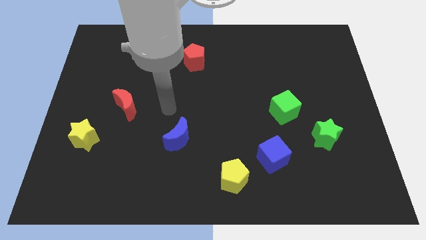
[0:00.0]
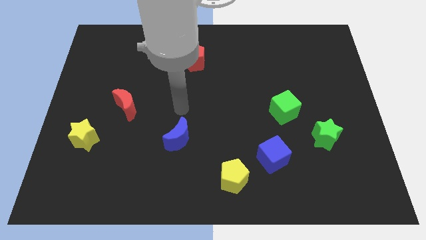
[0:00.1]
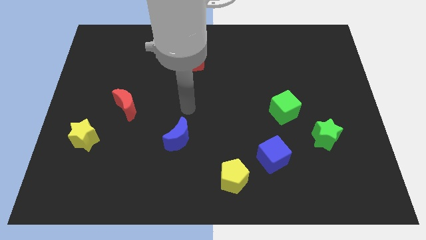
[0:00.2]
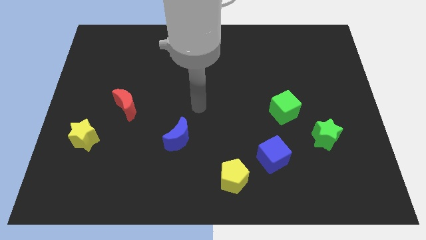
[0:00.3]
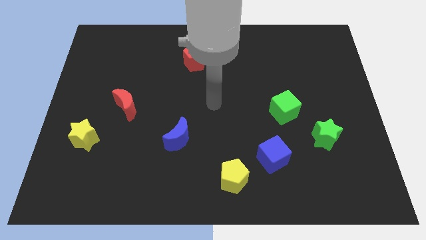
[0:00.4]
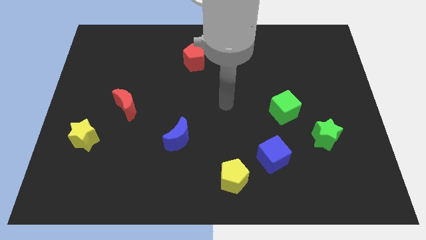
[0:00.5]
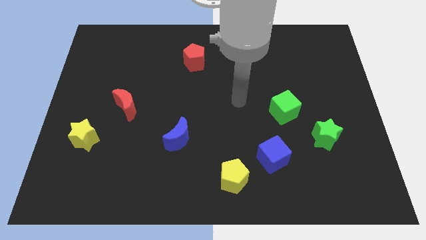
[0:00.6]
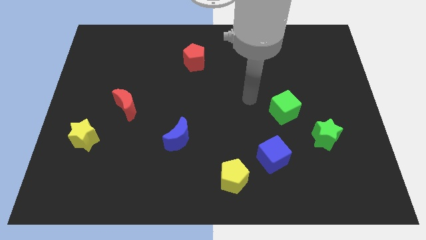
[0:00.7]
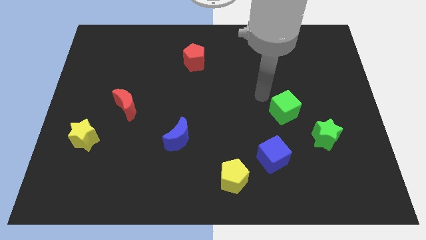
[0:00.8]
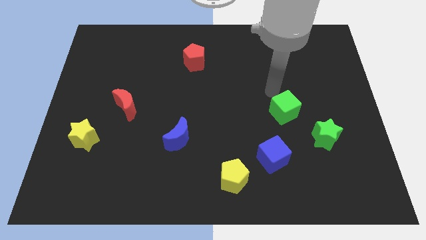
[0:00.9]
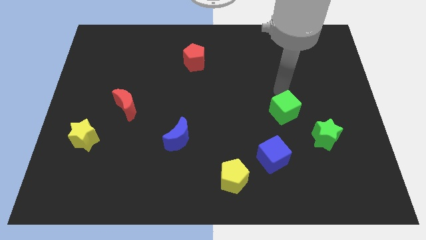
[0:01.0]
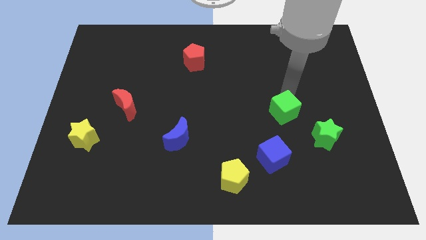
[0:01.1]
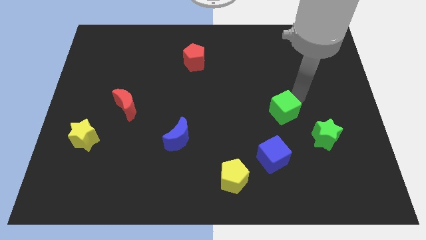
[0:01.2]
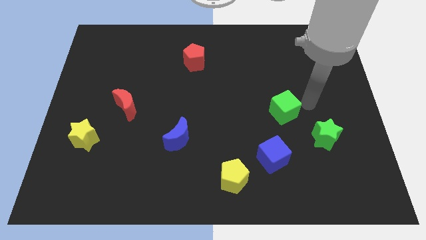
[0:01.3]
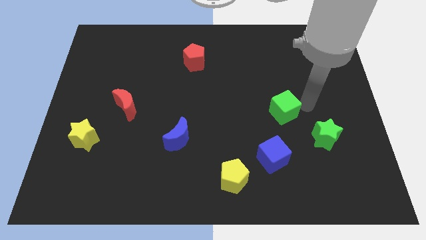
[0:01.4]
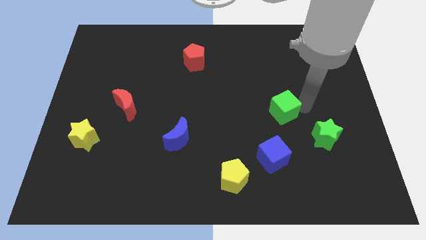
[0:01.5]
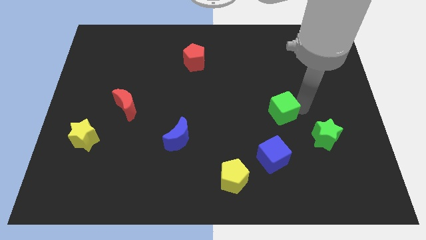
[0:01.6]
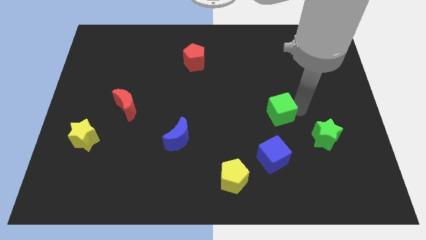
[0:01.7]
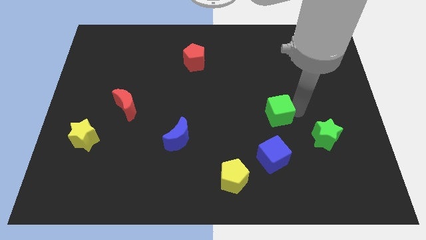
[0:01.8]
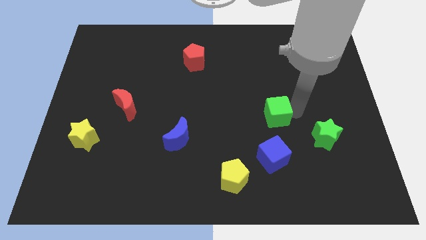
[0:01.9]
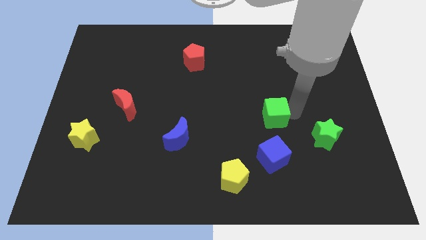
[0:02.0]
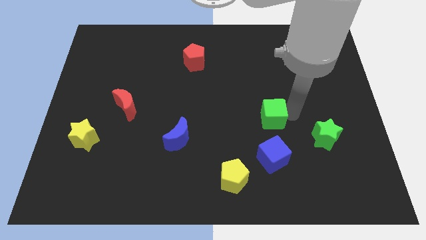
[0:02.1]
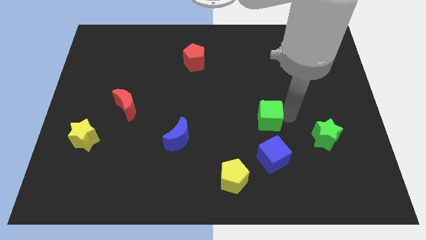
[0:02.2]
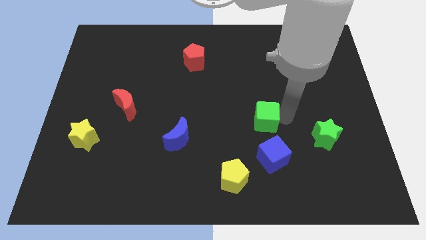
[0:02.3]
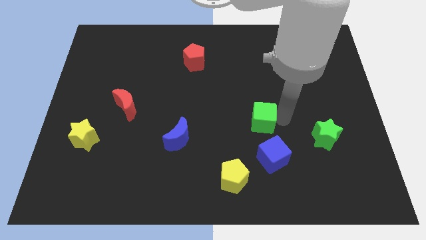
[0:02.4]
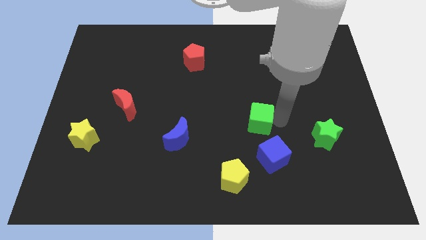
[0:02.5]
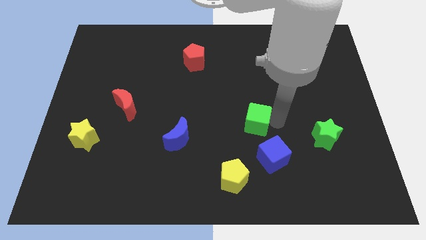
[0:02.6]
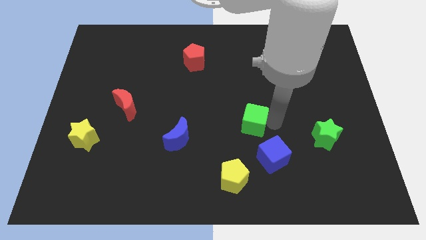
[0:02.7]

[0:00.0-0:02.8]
slightly move the green cube to the left

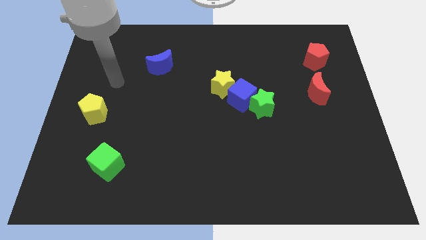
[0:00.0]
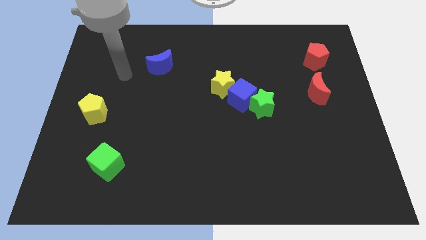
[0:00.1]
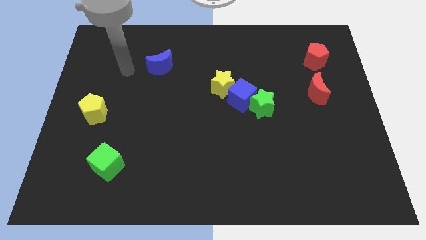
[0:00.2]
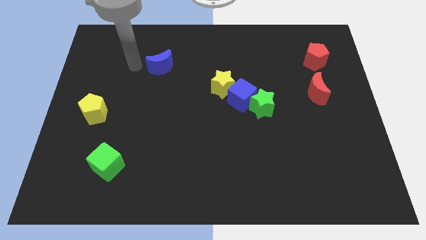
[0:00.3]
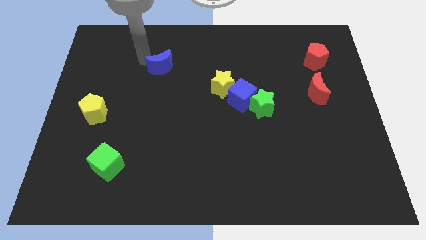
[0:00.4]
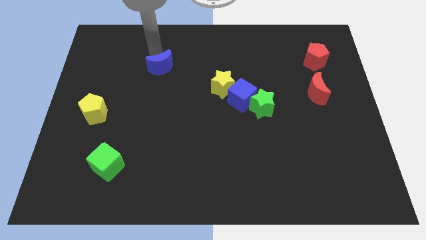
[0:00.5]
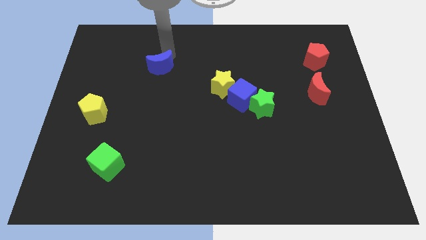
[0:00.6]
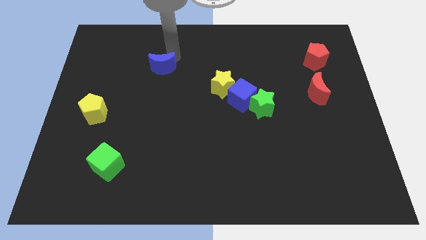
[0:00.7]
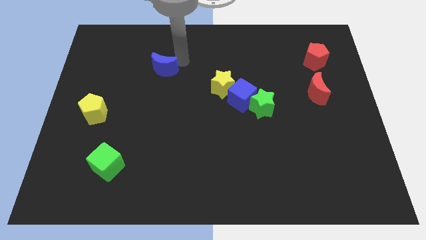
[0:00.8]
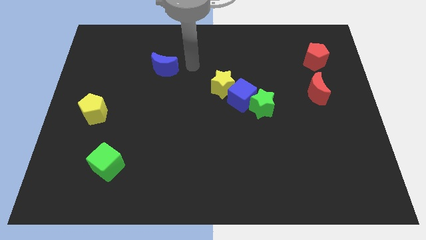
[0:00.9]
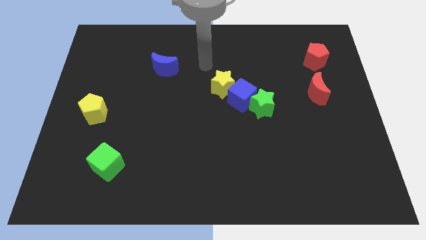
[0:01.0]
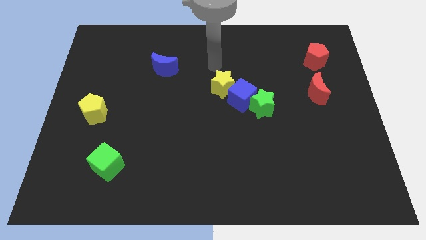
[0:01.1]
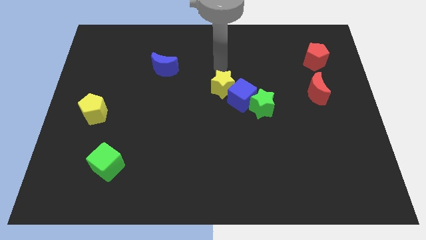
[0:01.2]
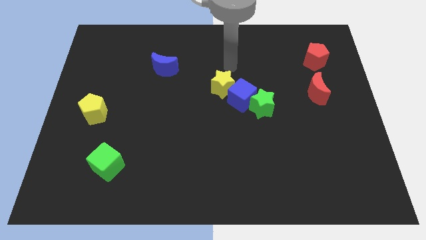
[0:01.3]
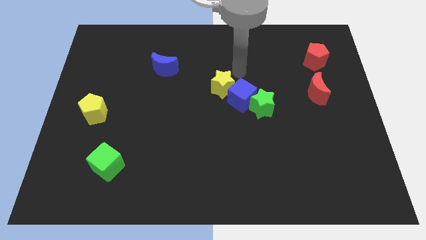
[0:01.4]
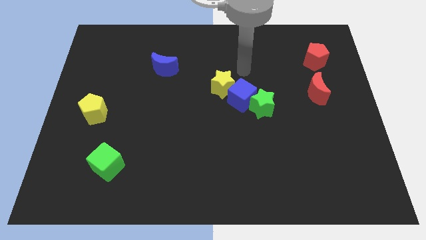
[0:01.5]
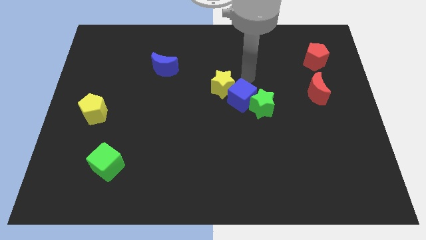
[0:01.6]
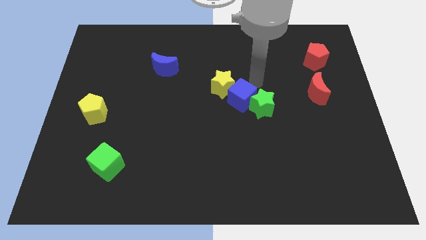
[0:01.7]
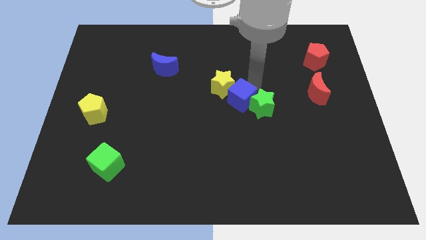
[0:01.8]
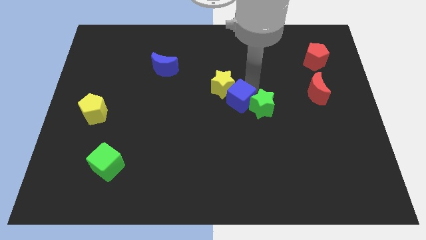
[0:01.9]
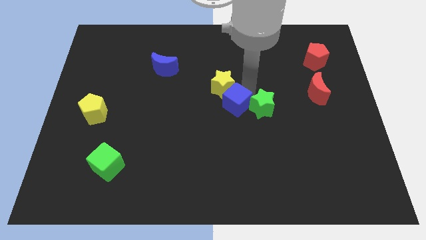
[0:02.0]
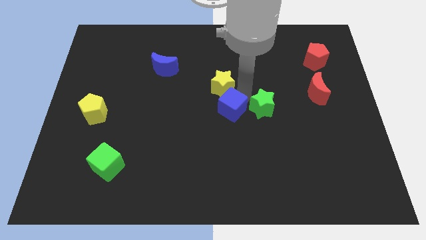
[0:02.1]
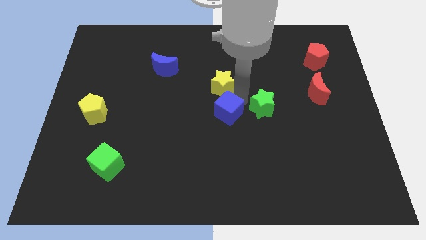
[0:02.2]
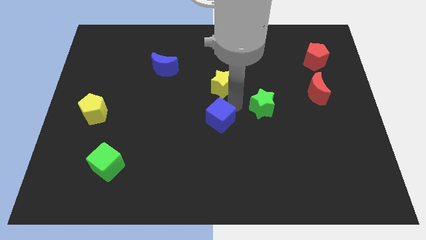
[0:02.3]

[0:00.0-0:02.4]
push the blue cube downwards and then left somewhat

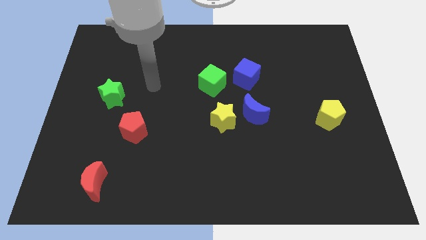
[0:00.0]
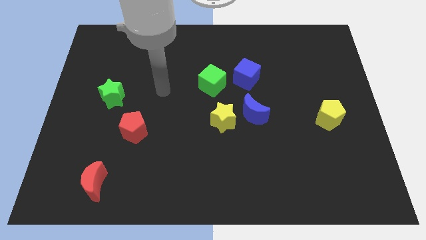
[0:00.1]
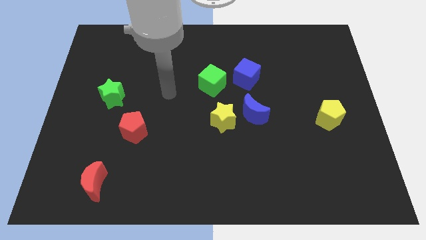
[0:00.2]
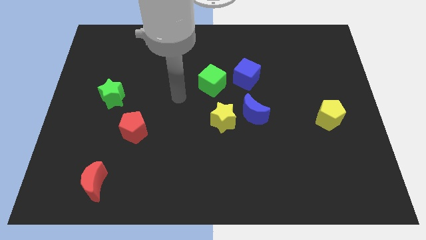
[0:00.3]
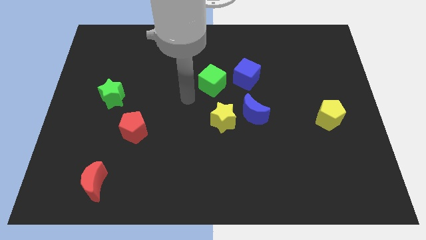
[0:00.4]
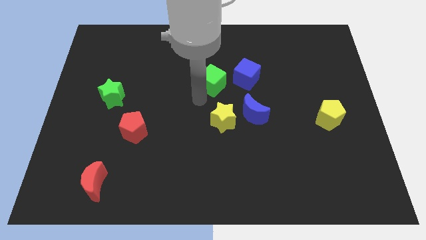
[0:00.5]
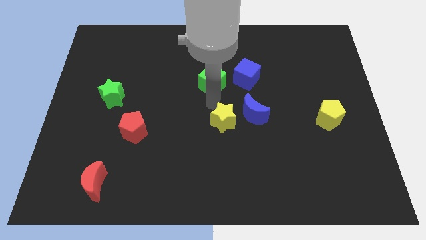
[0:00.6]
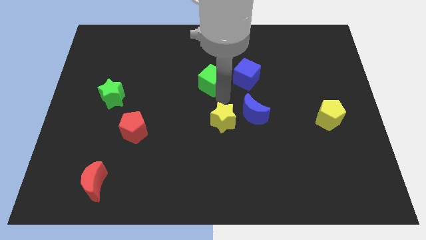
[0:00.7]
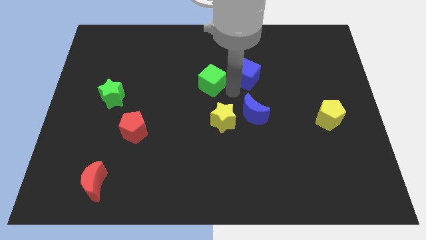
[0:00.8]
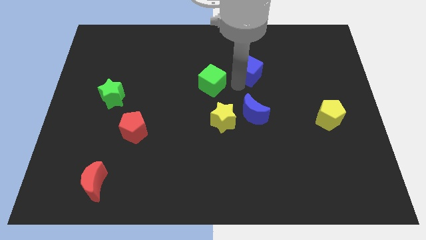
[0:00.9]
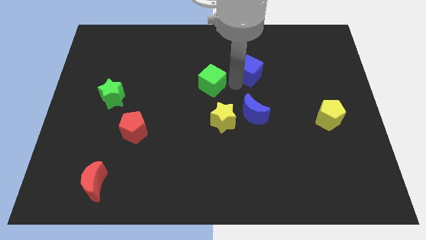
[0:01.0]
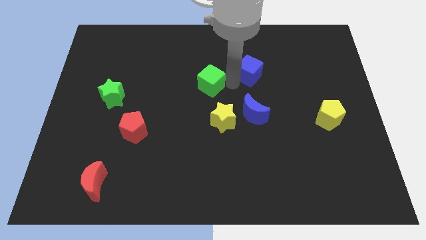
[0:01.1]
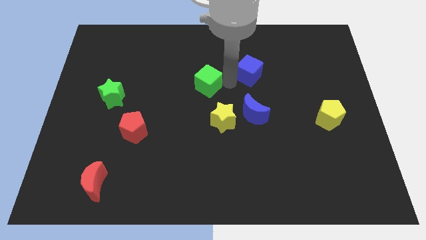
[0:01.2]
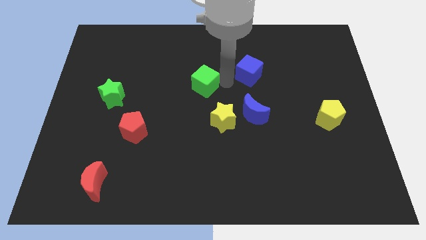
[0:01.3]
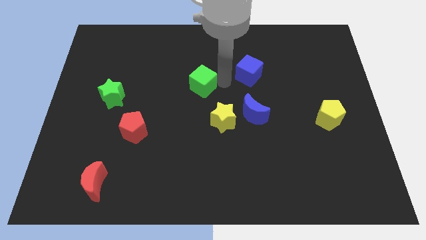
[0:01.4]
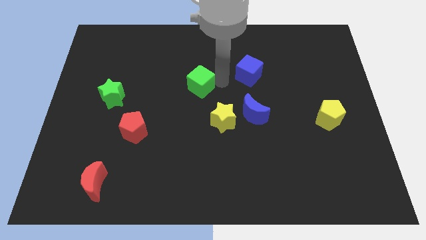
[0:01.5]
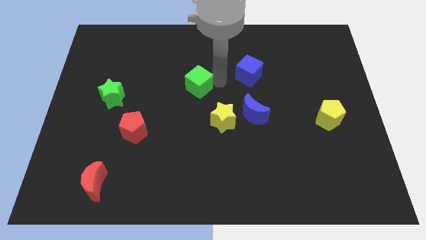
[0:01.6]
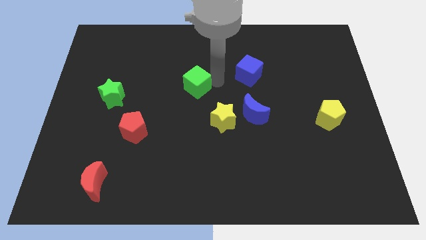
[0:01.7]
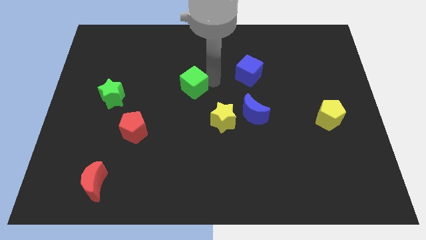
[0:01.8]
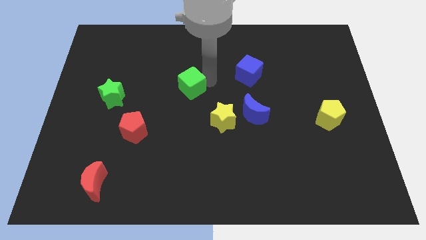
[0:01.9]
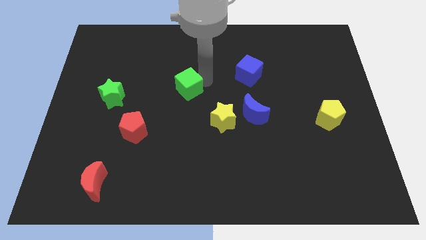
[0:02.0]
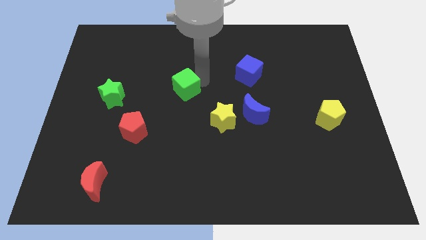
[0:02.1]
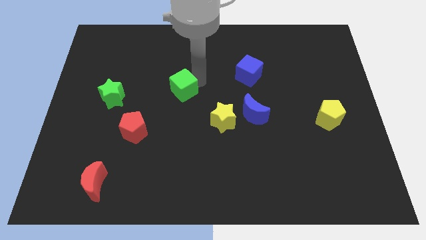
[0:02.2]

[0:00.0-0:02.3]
slightly slide the green cube to the left

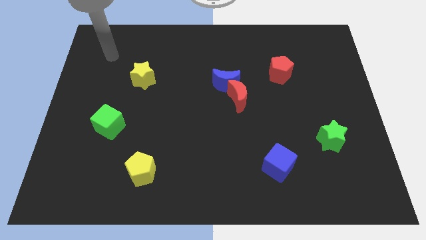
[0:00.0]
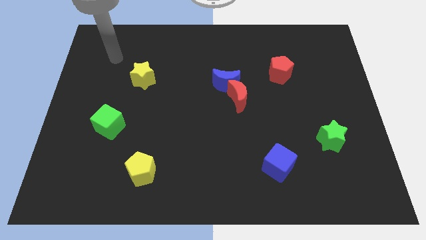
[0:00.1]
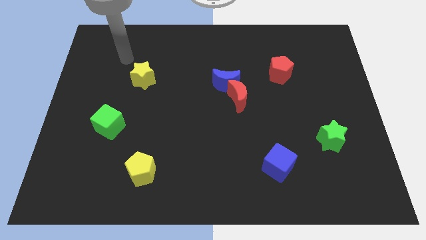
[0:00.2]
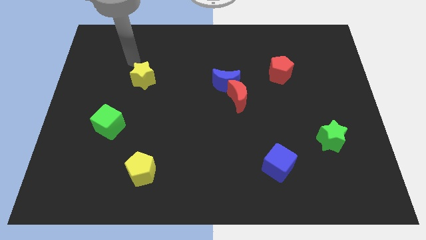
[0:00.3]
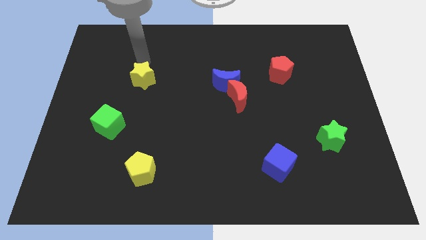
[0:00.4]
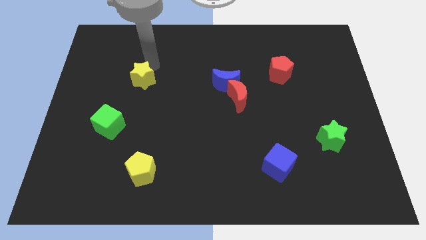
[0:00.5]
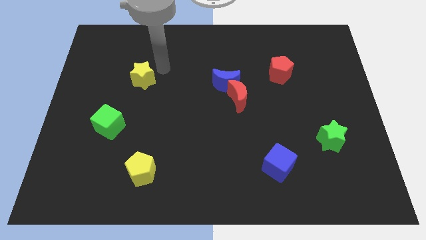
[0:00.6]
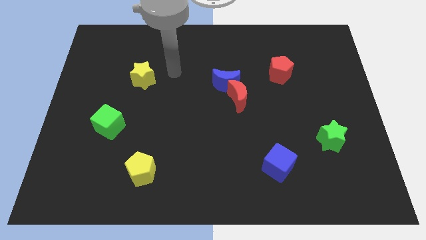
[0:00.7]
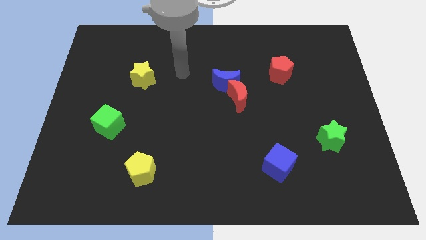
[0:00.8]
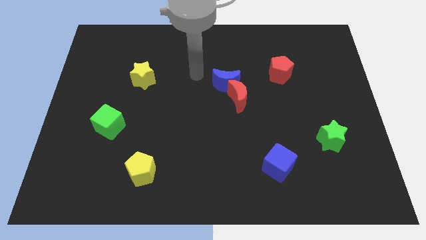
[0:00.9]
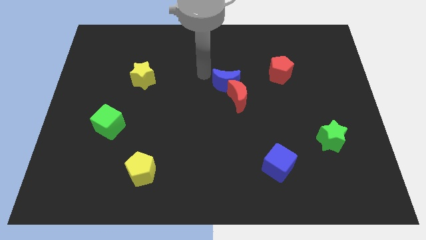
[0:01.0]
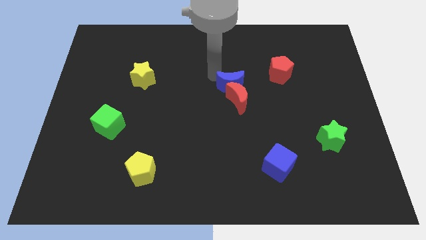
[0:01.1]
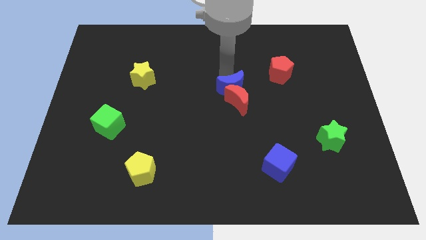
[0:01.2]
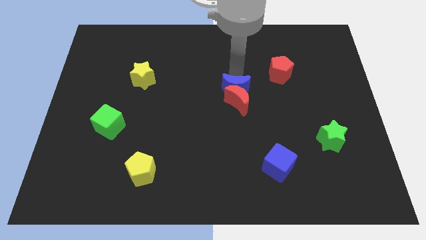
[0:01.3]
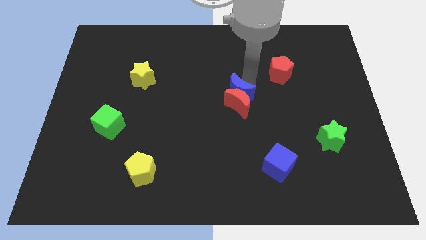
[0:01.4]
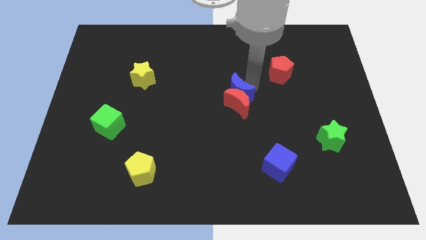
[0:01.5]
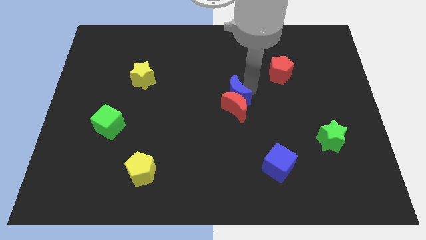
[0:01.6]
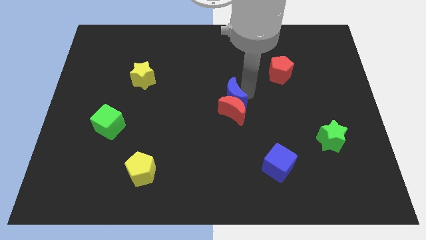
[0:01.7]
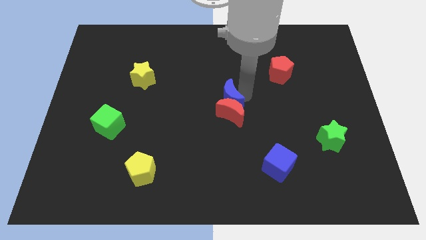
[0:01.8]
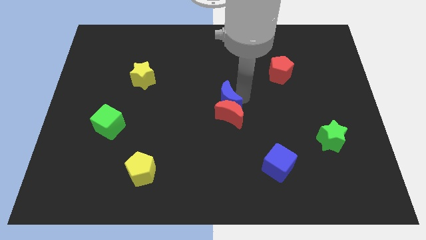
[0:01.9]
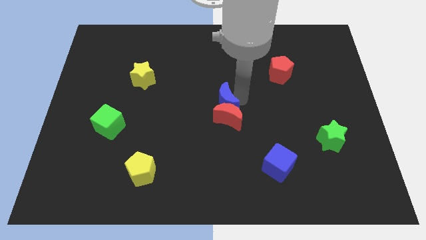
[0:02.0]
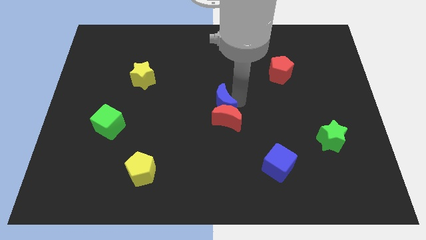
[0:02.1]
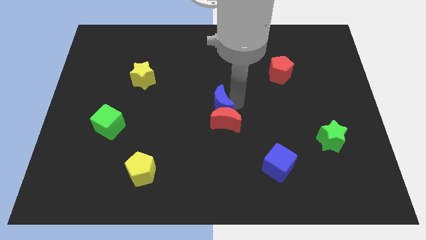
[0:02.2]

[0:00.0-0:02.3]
slightly move the red moon downwards
